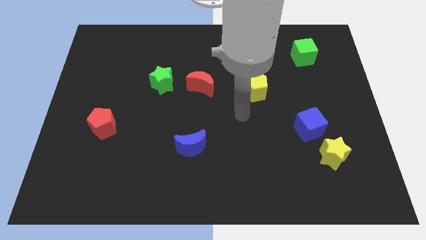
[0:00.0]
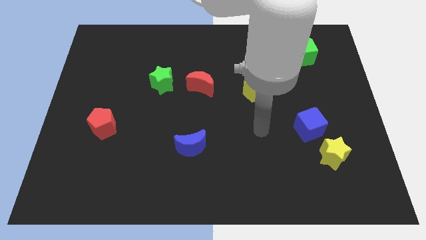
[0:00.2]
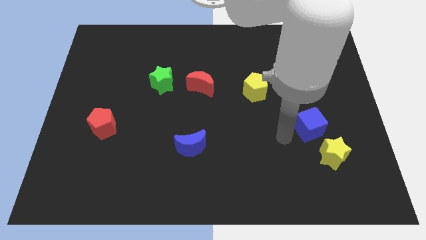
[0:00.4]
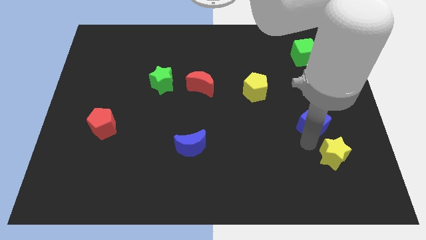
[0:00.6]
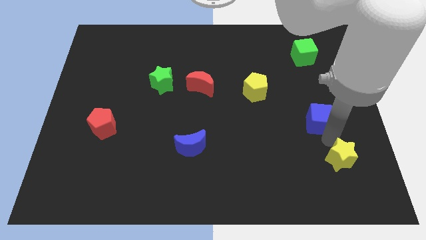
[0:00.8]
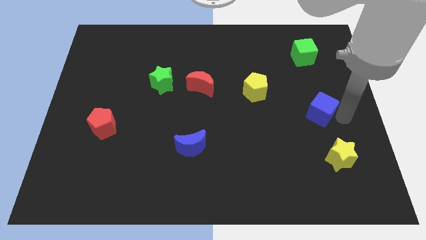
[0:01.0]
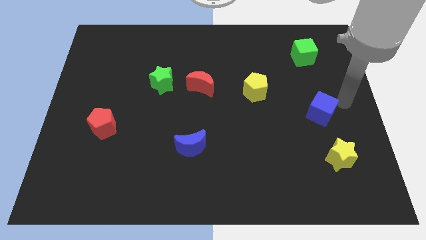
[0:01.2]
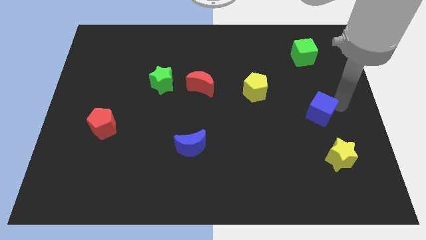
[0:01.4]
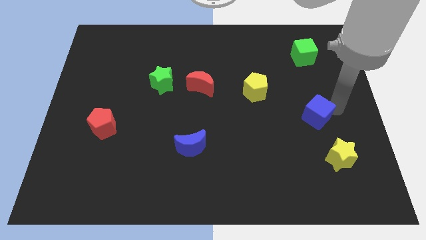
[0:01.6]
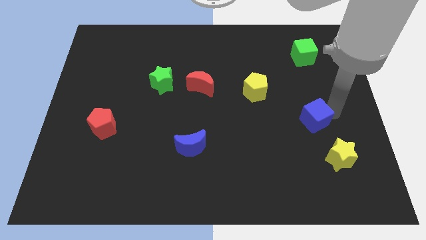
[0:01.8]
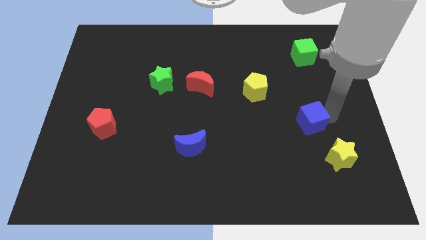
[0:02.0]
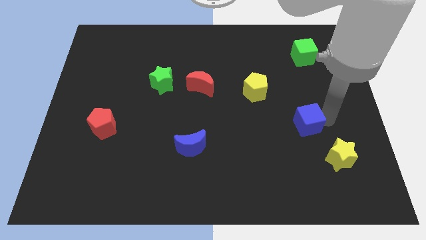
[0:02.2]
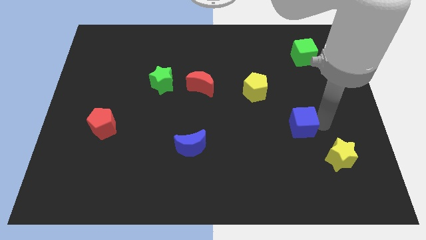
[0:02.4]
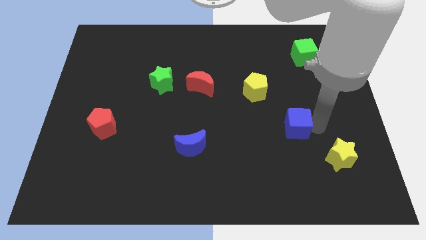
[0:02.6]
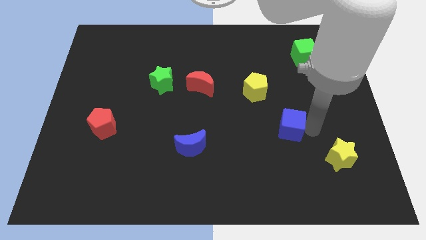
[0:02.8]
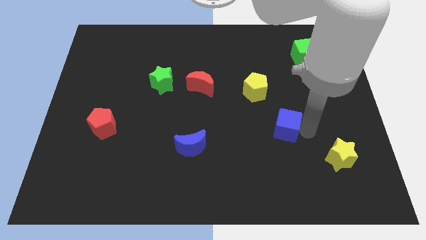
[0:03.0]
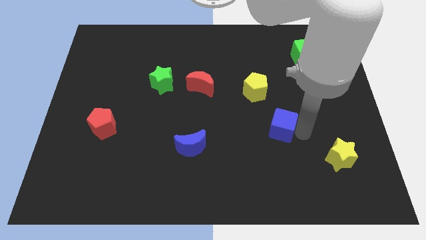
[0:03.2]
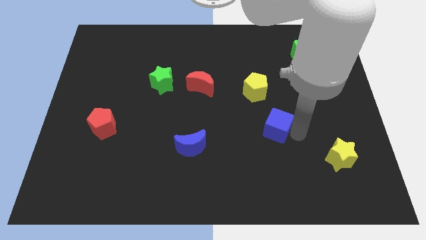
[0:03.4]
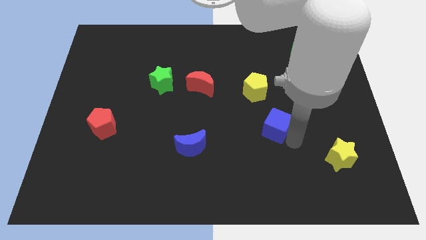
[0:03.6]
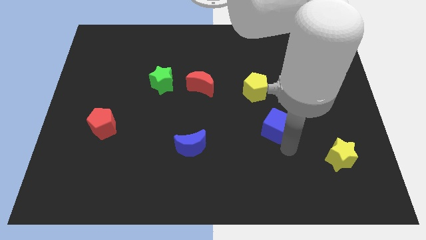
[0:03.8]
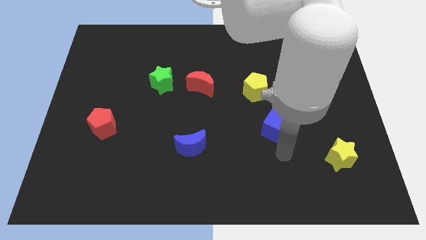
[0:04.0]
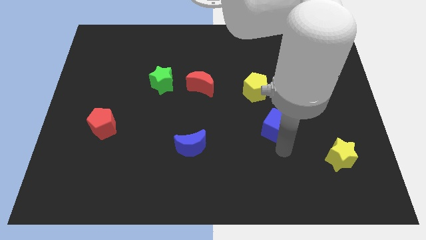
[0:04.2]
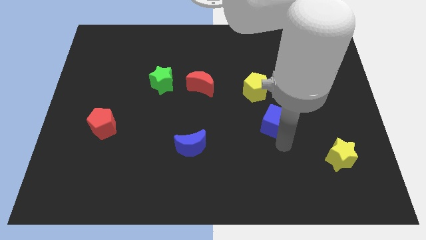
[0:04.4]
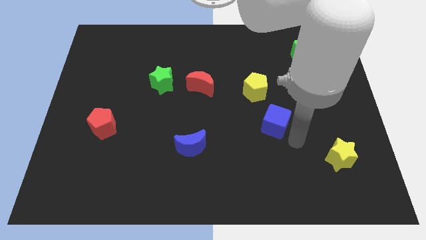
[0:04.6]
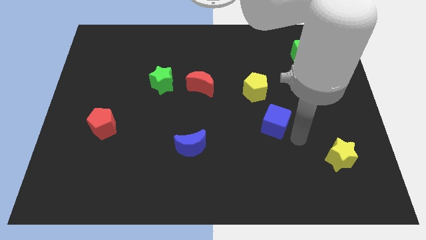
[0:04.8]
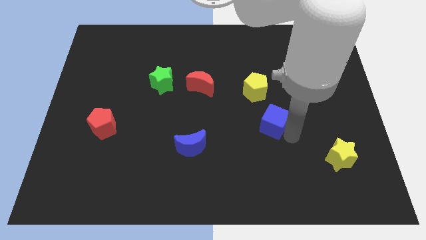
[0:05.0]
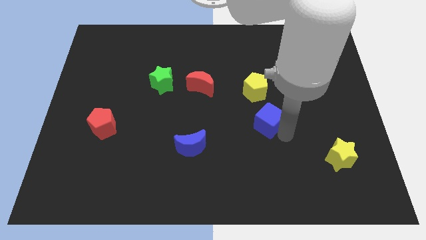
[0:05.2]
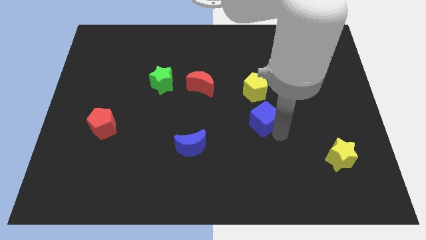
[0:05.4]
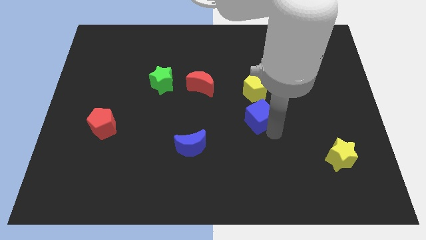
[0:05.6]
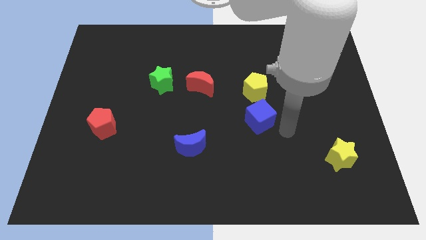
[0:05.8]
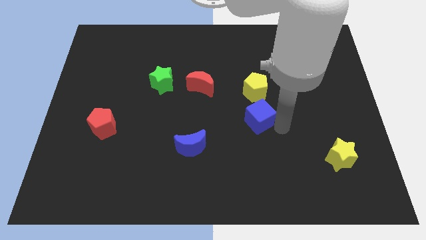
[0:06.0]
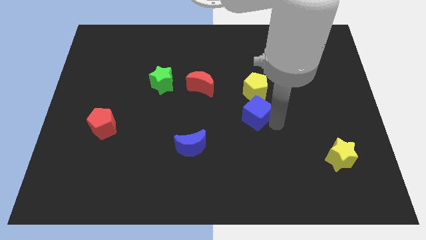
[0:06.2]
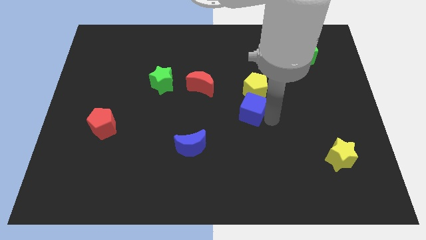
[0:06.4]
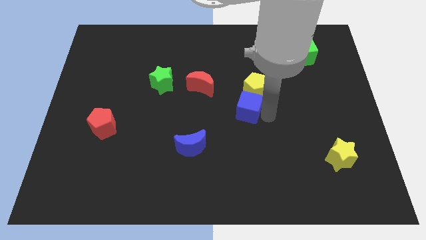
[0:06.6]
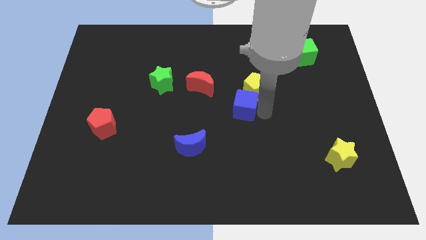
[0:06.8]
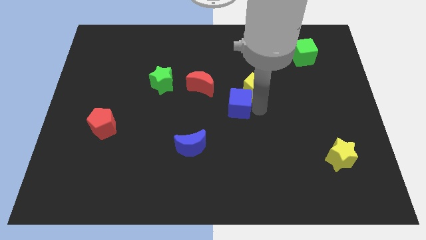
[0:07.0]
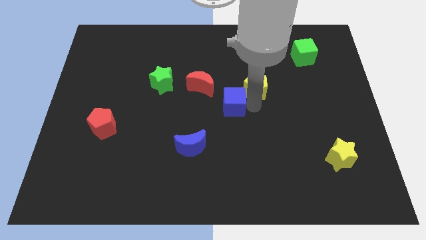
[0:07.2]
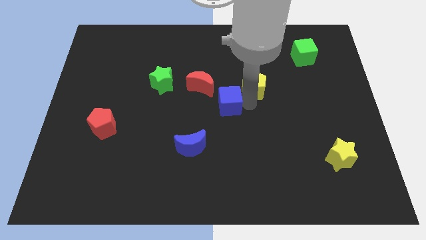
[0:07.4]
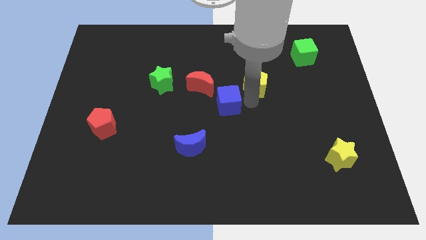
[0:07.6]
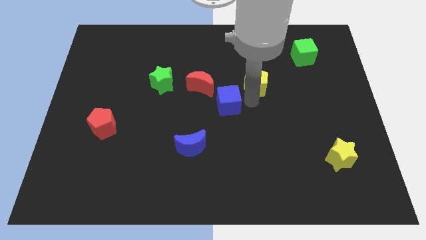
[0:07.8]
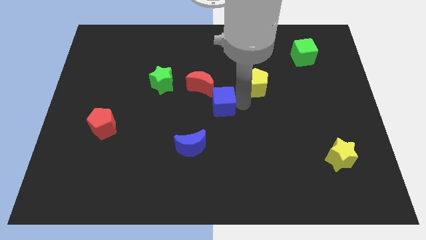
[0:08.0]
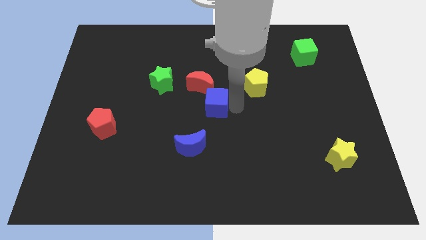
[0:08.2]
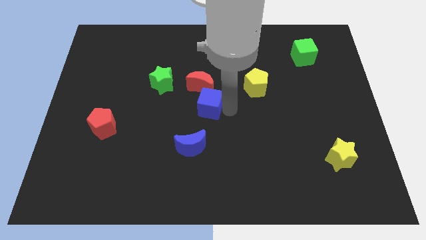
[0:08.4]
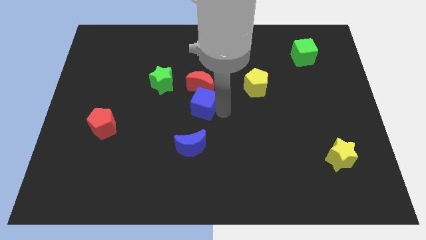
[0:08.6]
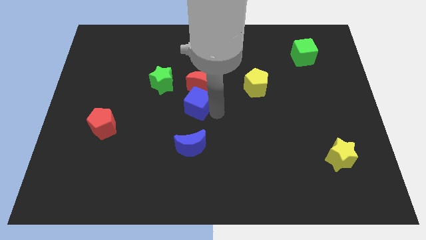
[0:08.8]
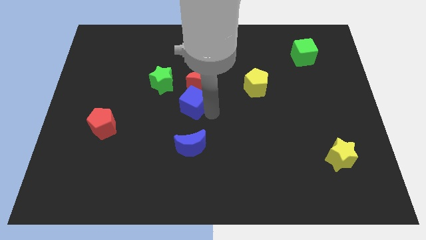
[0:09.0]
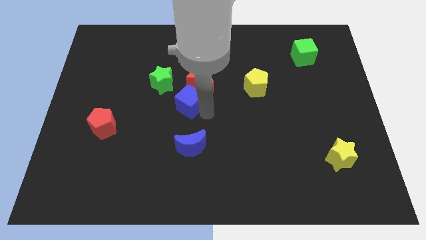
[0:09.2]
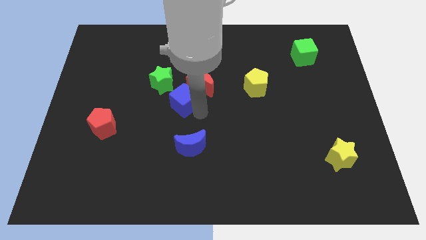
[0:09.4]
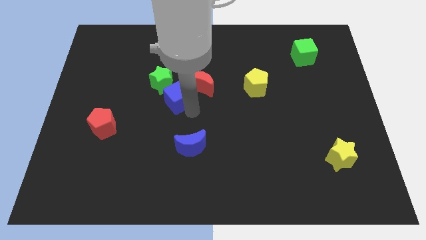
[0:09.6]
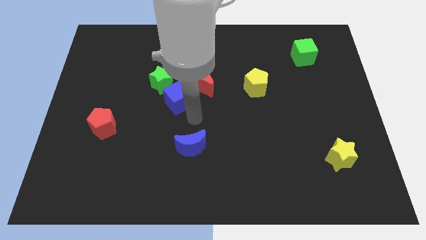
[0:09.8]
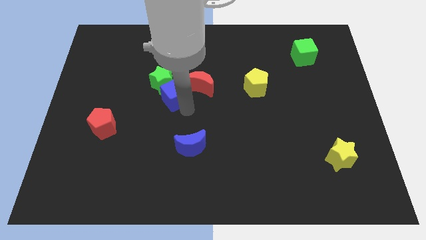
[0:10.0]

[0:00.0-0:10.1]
slide the blue cube to the green star

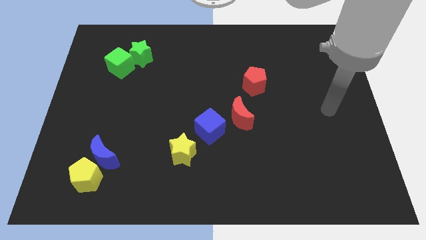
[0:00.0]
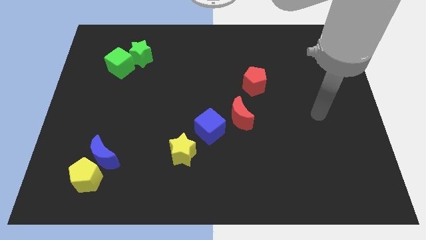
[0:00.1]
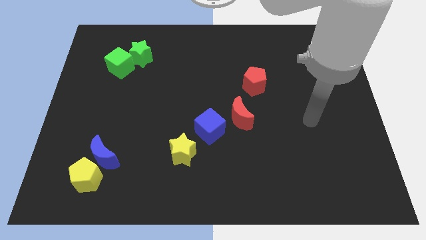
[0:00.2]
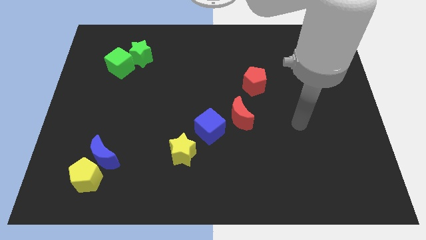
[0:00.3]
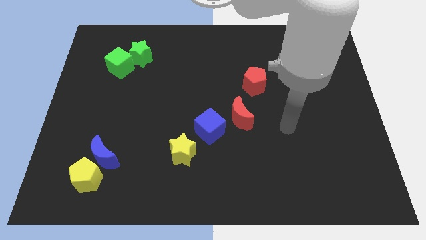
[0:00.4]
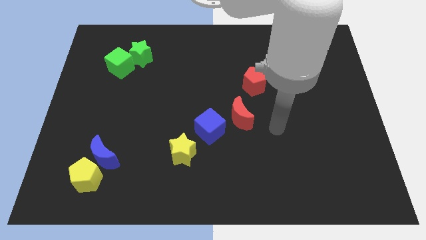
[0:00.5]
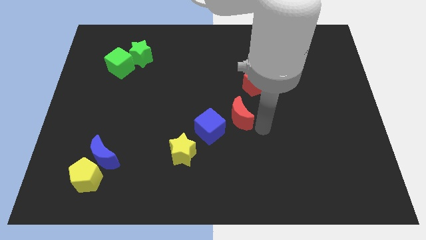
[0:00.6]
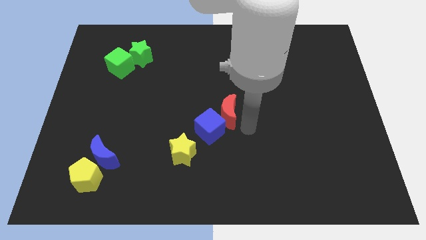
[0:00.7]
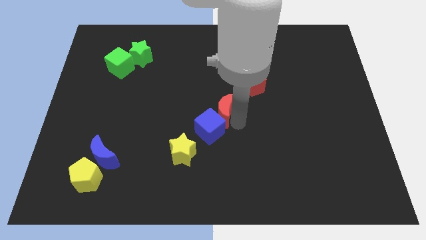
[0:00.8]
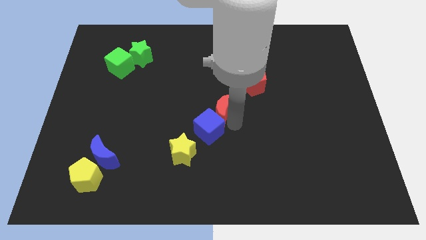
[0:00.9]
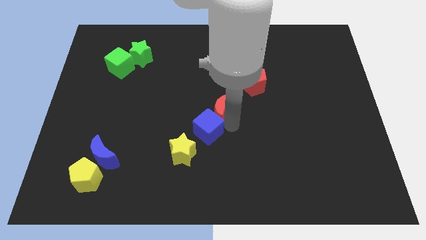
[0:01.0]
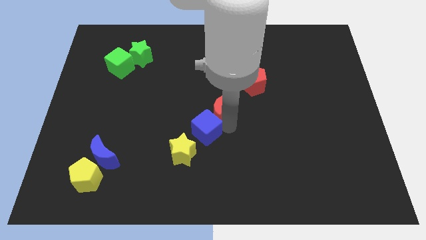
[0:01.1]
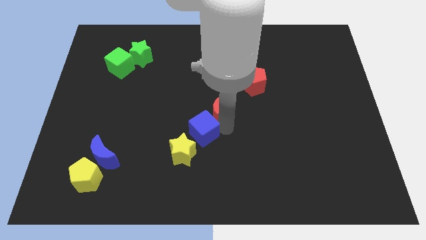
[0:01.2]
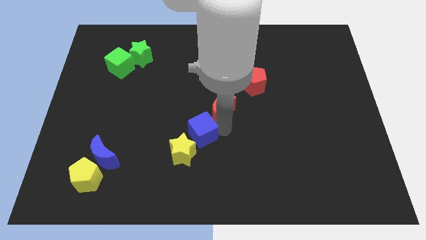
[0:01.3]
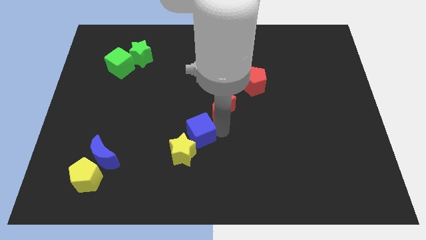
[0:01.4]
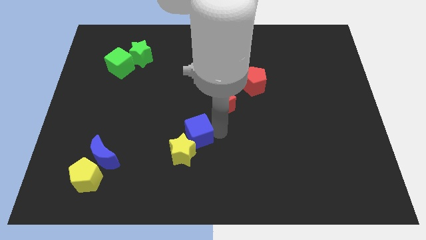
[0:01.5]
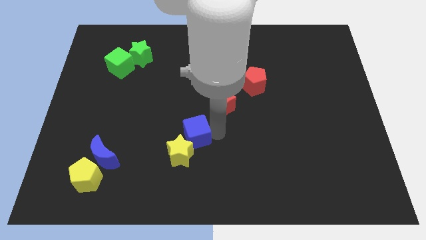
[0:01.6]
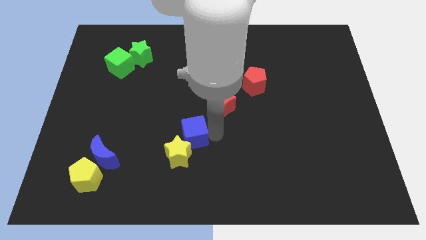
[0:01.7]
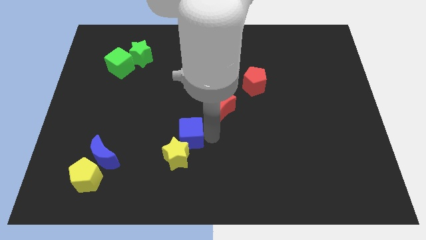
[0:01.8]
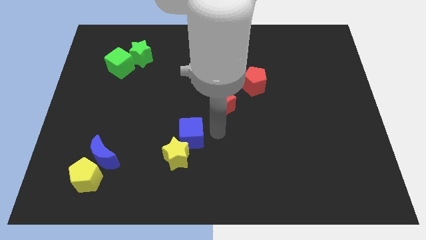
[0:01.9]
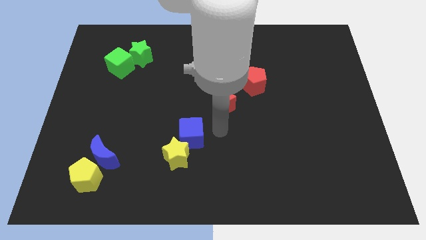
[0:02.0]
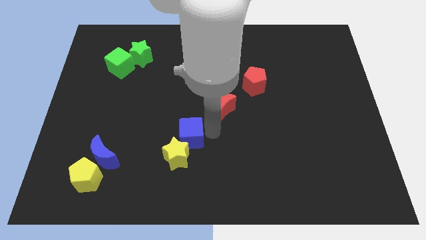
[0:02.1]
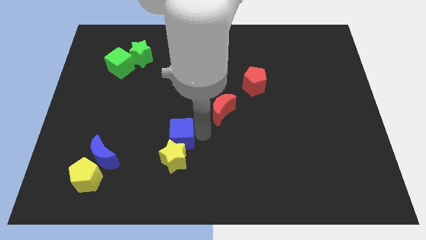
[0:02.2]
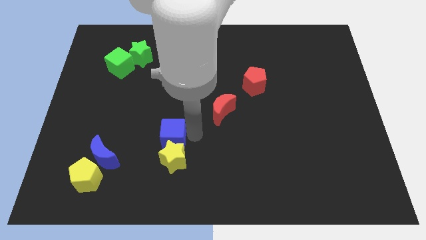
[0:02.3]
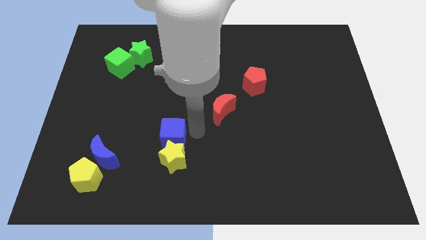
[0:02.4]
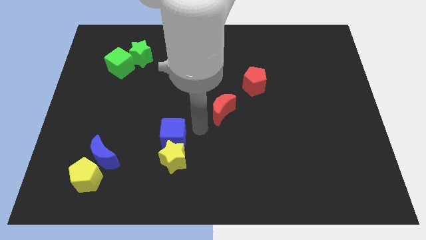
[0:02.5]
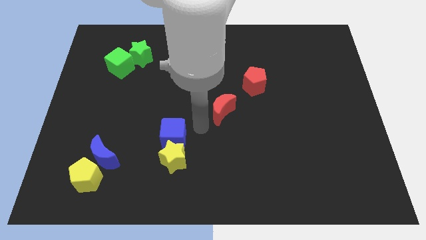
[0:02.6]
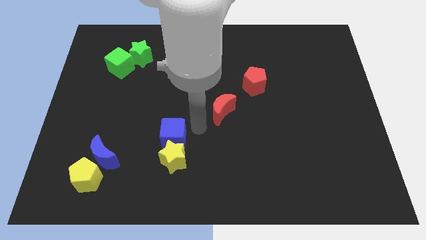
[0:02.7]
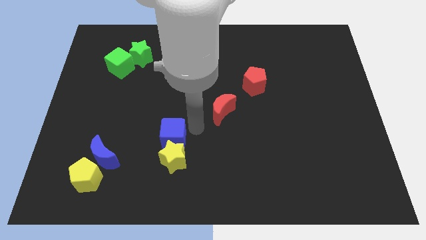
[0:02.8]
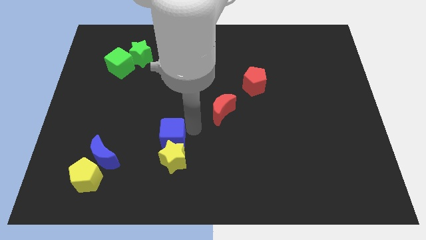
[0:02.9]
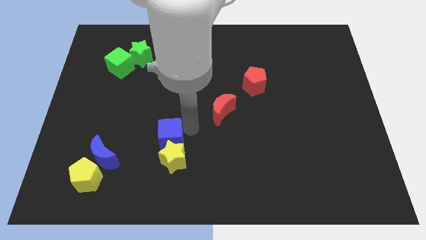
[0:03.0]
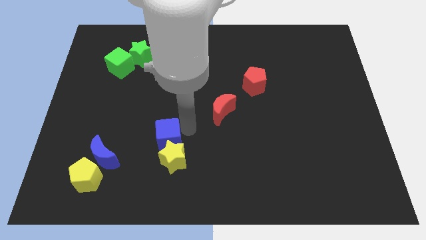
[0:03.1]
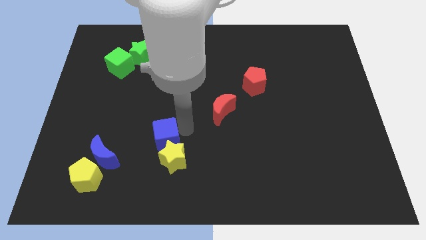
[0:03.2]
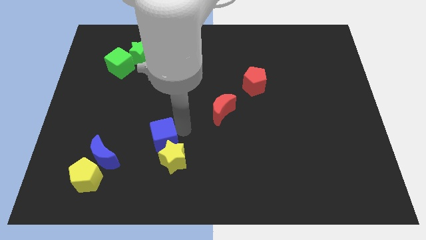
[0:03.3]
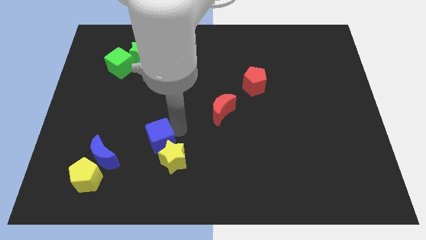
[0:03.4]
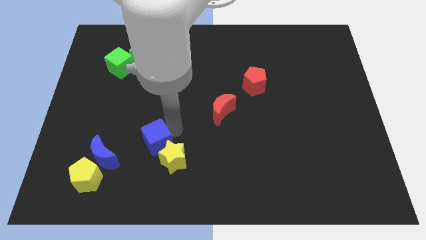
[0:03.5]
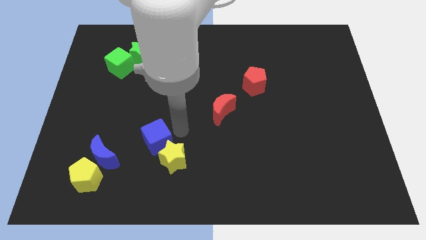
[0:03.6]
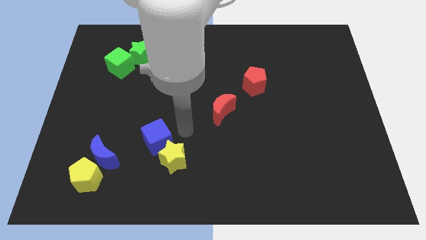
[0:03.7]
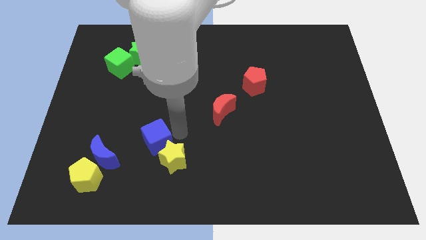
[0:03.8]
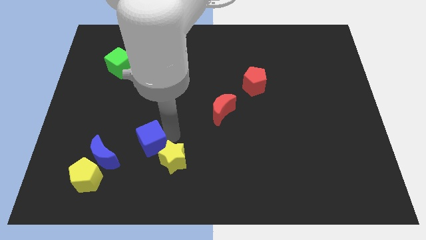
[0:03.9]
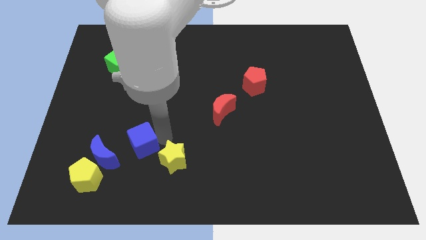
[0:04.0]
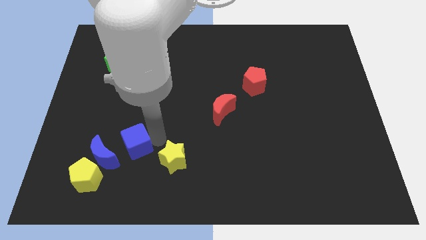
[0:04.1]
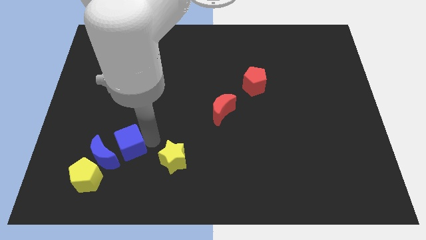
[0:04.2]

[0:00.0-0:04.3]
put the blue cube to the blue moon
